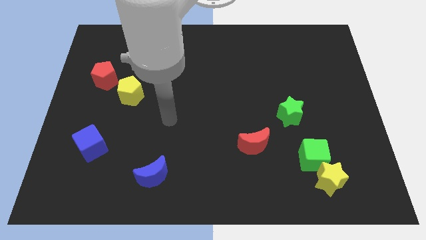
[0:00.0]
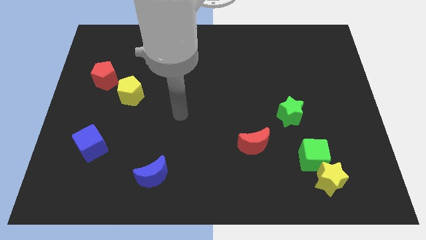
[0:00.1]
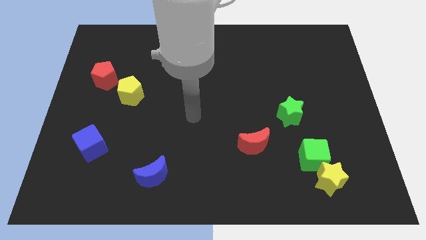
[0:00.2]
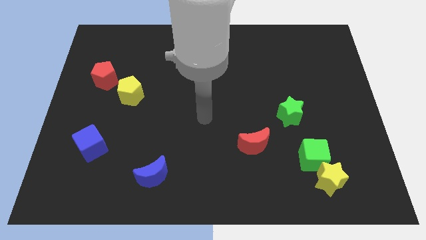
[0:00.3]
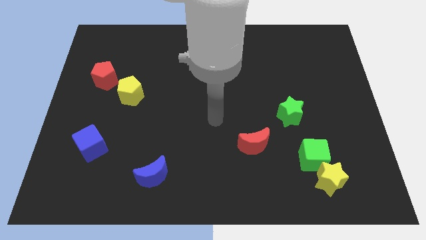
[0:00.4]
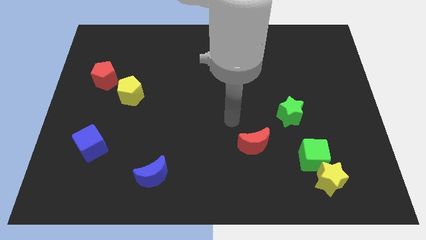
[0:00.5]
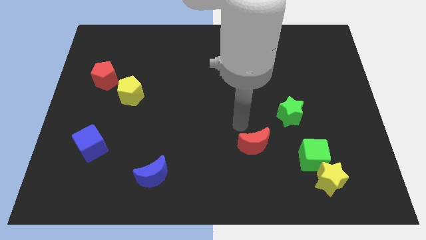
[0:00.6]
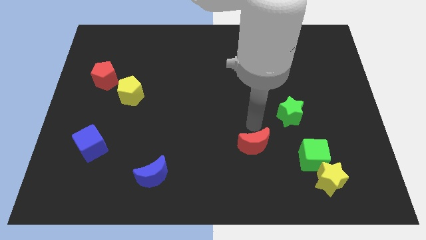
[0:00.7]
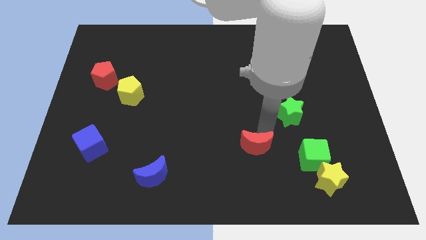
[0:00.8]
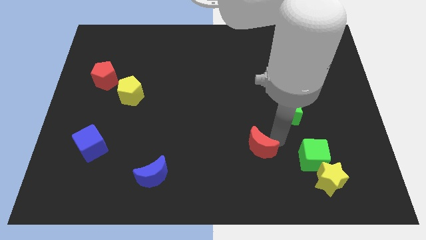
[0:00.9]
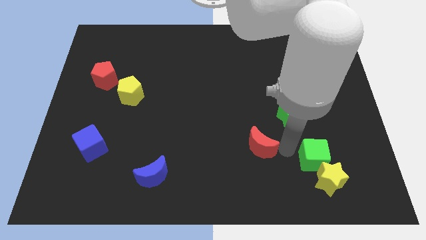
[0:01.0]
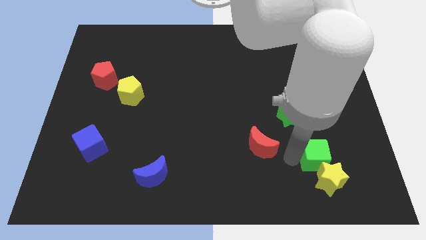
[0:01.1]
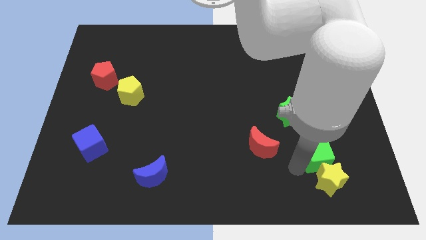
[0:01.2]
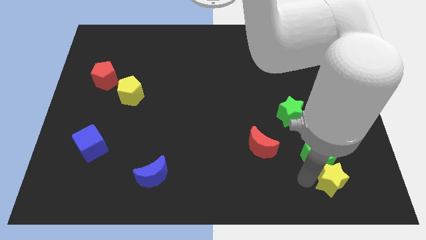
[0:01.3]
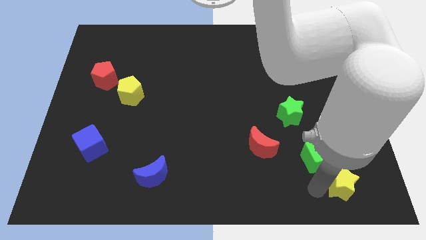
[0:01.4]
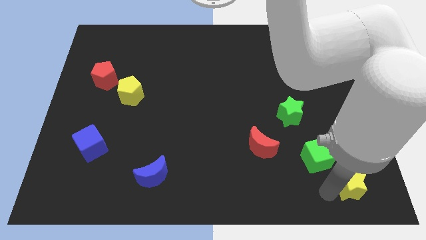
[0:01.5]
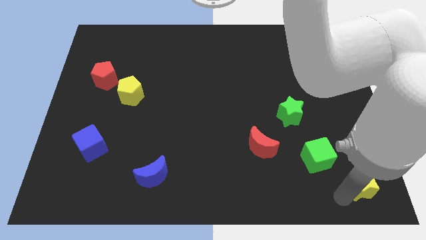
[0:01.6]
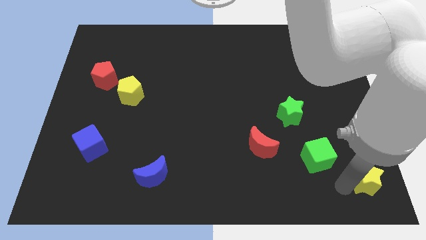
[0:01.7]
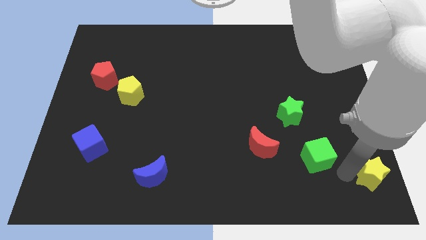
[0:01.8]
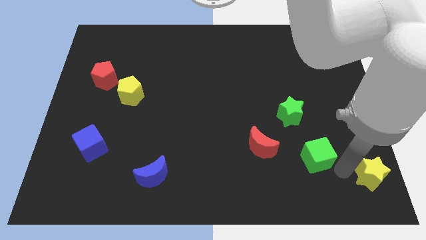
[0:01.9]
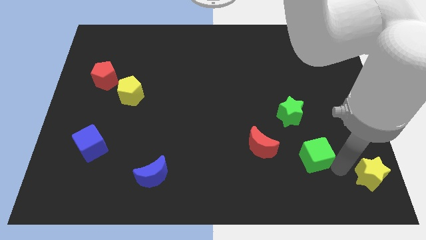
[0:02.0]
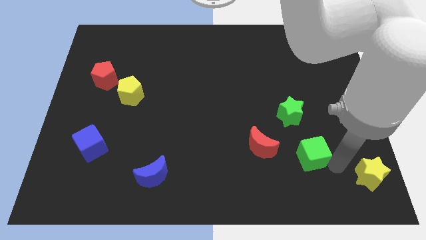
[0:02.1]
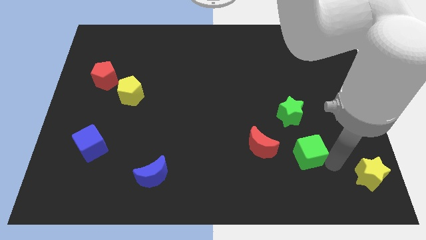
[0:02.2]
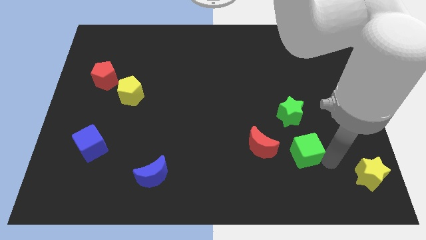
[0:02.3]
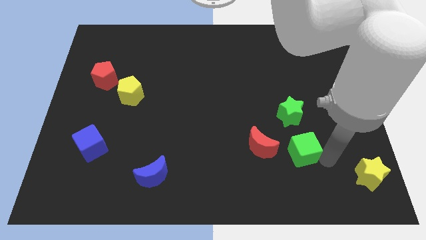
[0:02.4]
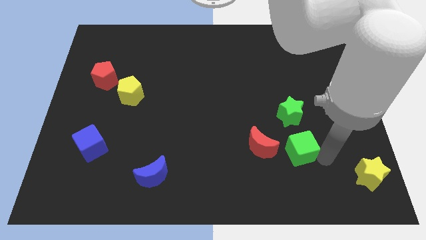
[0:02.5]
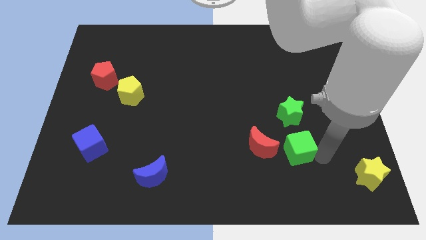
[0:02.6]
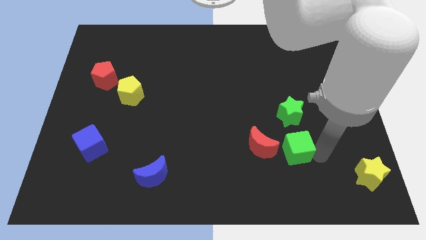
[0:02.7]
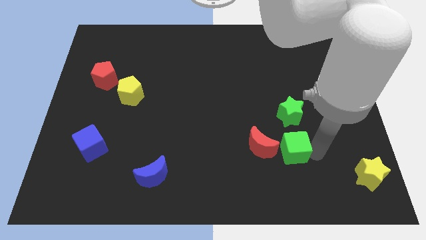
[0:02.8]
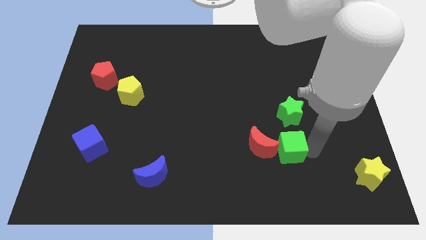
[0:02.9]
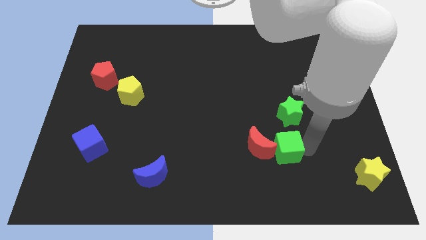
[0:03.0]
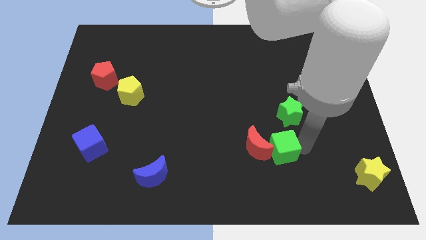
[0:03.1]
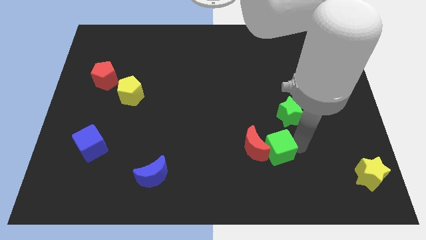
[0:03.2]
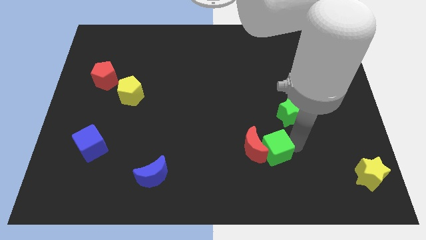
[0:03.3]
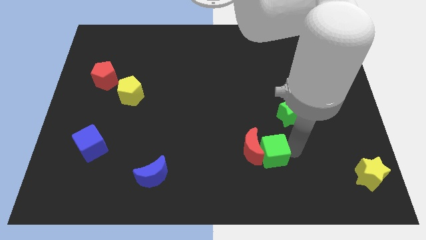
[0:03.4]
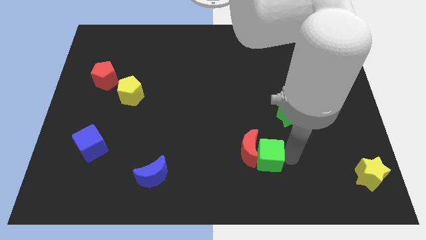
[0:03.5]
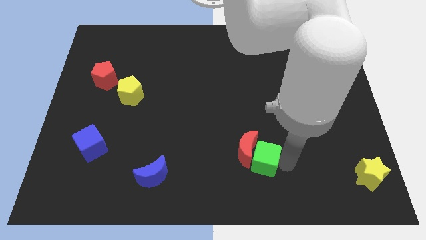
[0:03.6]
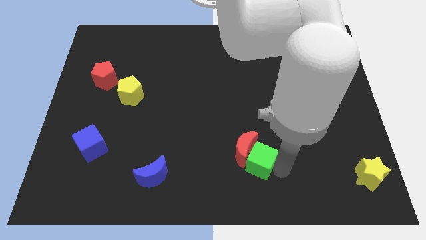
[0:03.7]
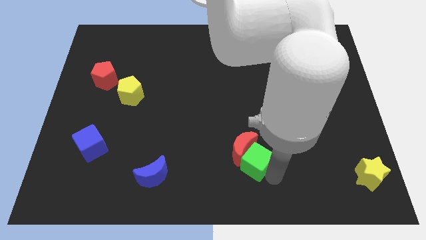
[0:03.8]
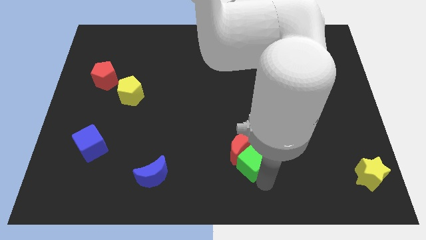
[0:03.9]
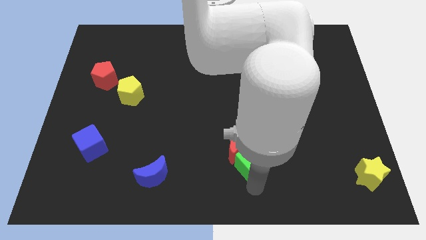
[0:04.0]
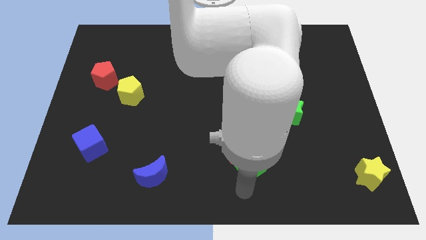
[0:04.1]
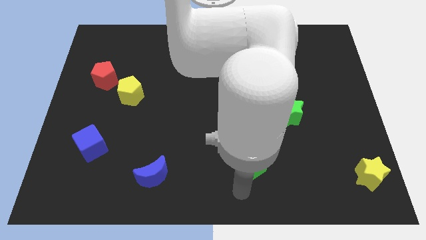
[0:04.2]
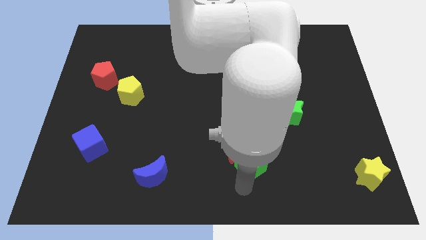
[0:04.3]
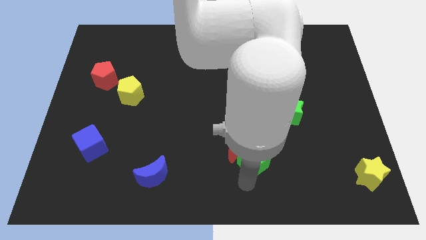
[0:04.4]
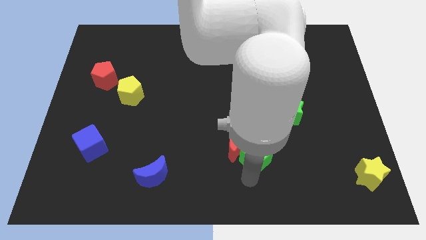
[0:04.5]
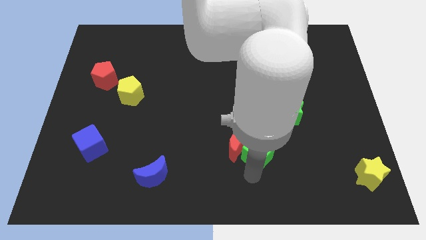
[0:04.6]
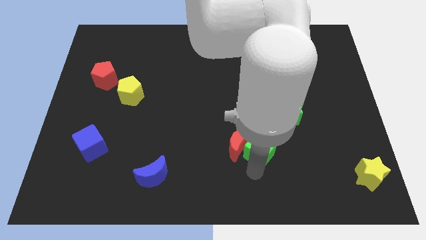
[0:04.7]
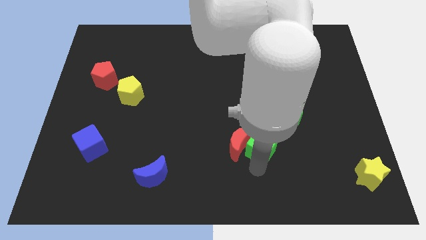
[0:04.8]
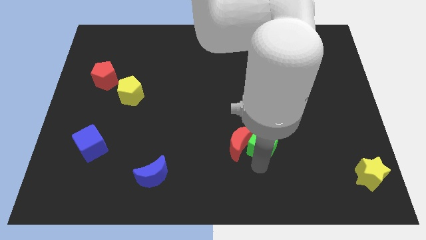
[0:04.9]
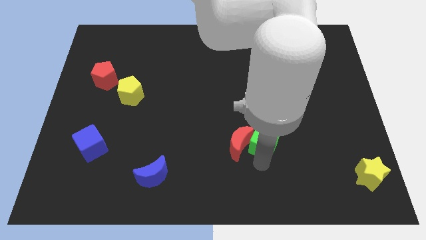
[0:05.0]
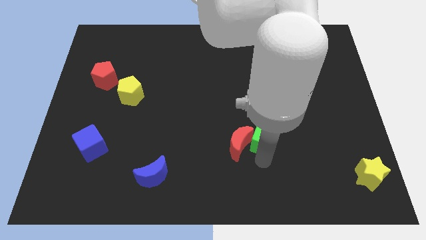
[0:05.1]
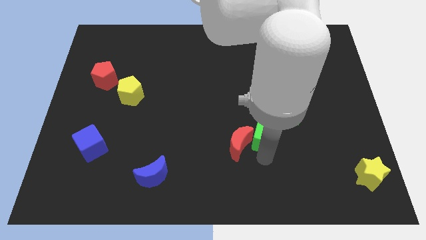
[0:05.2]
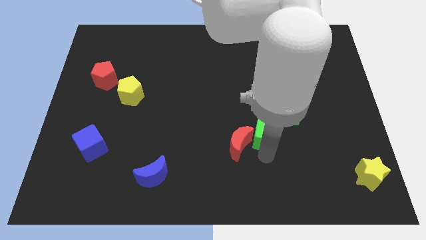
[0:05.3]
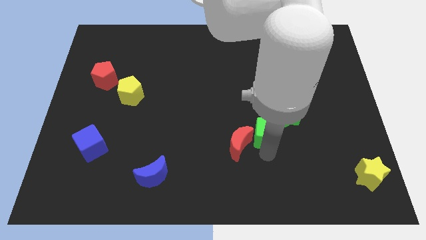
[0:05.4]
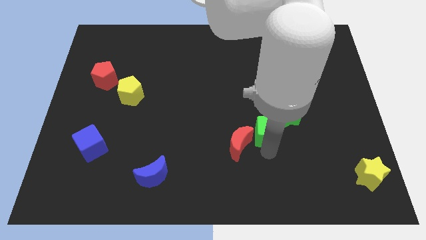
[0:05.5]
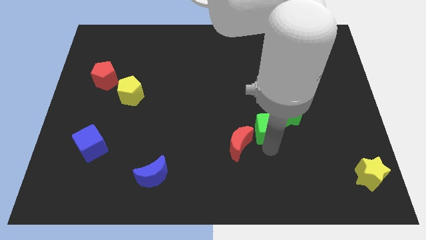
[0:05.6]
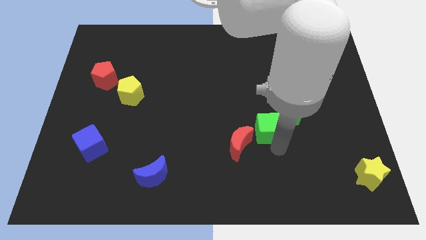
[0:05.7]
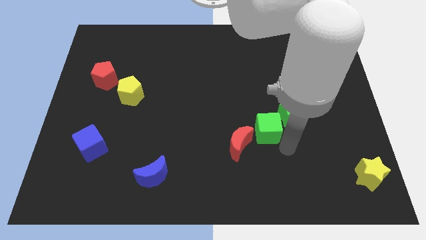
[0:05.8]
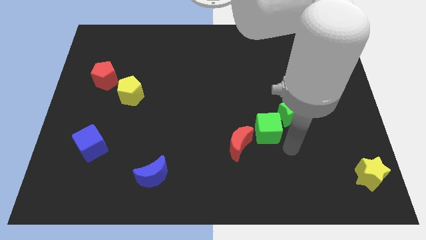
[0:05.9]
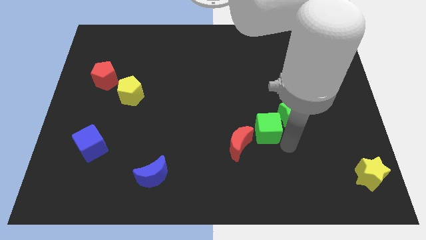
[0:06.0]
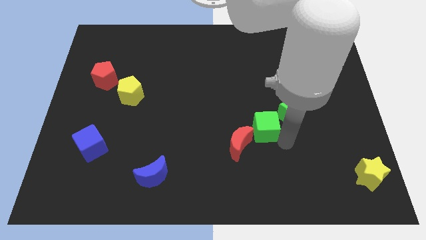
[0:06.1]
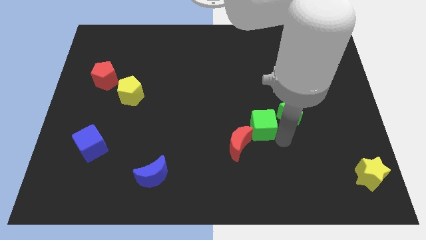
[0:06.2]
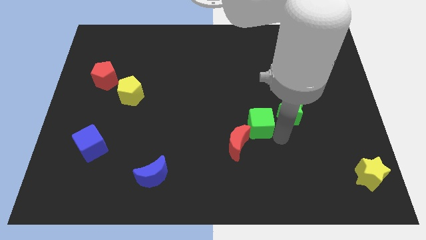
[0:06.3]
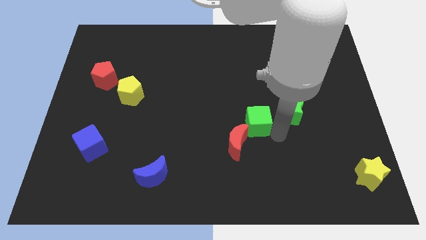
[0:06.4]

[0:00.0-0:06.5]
move the green cube to the center of the board
